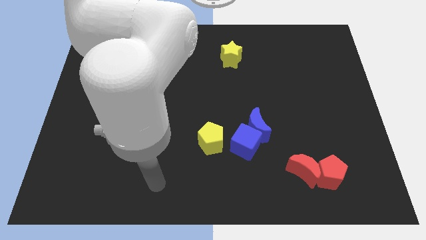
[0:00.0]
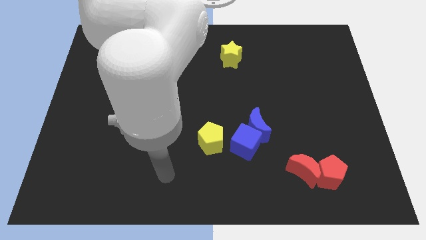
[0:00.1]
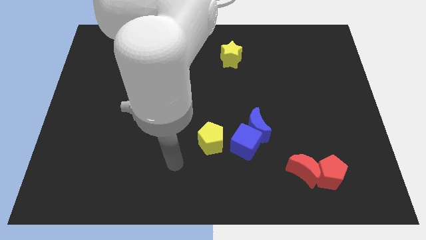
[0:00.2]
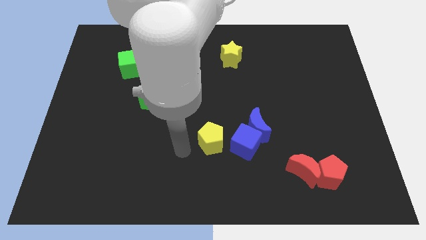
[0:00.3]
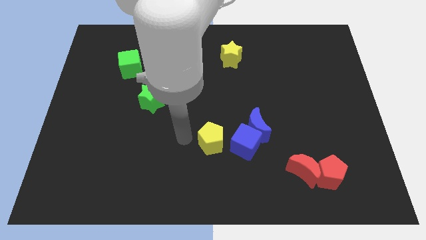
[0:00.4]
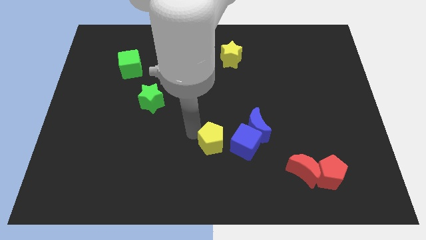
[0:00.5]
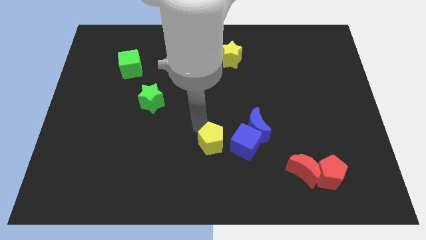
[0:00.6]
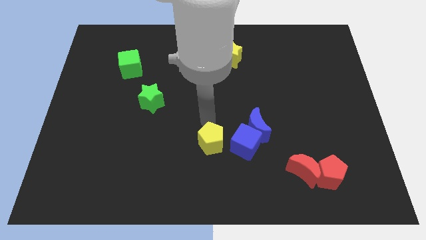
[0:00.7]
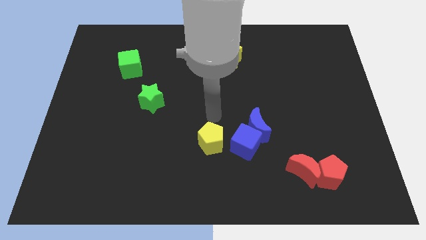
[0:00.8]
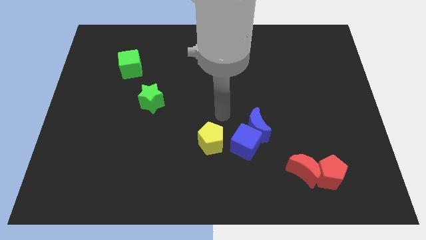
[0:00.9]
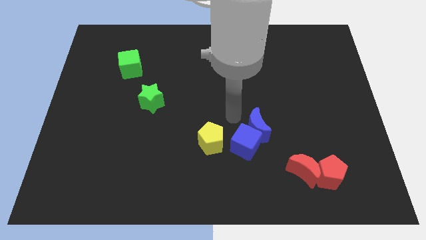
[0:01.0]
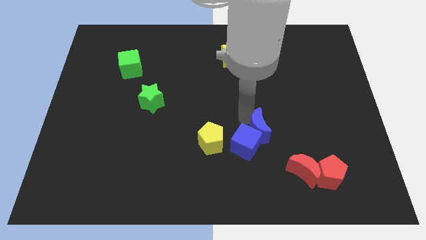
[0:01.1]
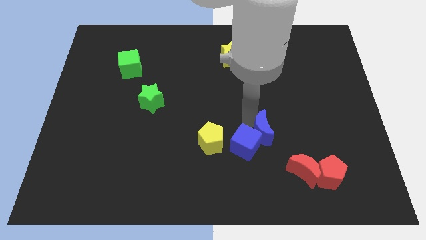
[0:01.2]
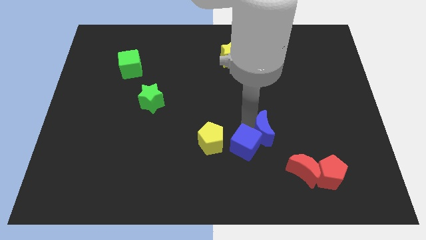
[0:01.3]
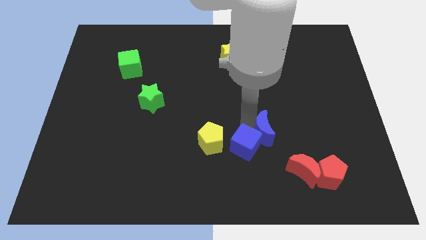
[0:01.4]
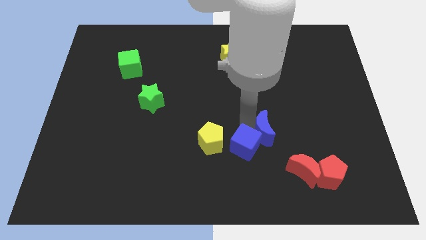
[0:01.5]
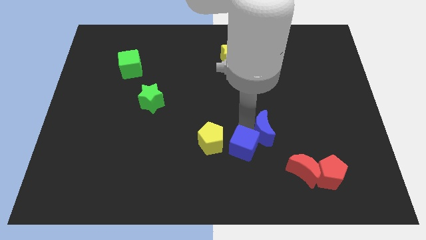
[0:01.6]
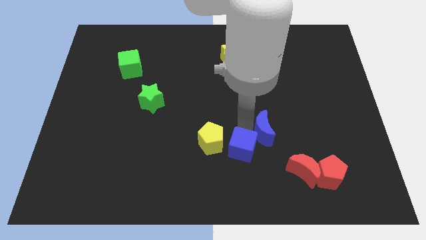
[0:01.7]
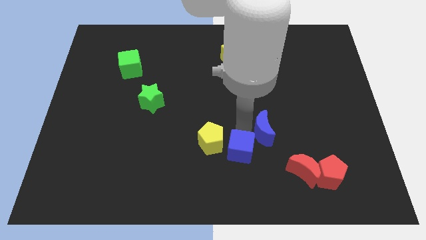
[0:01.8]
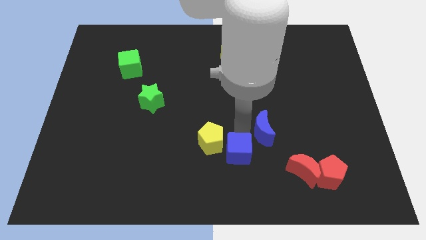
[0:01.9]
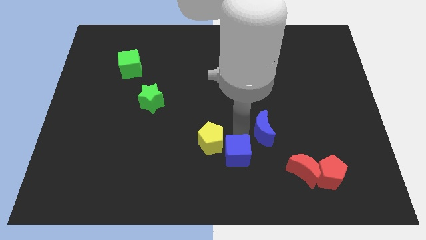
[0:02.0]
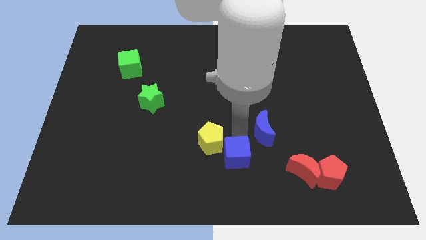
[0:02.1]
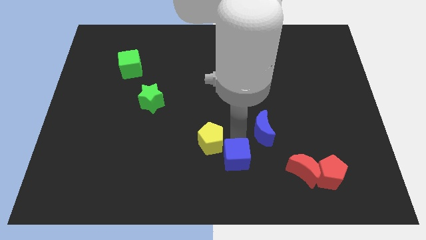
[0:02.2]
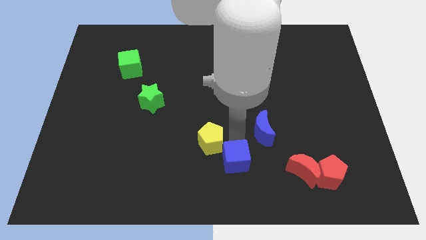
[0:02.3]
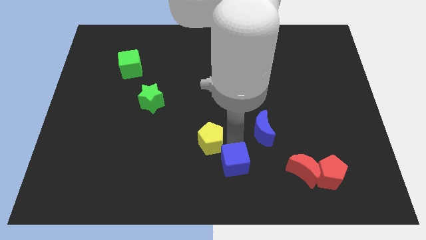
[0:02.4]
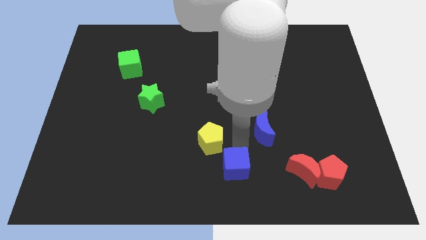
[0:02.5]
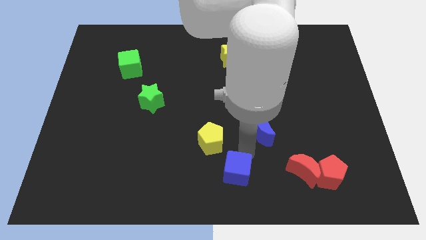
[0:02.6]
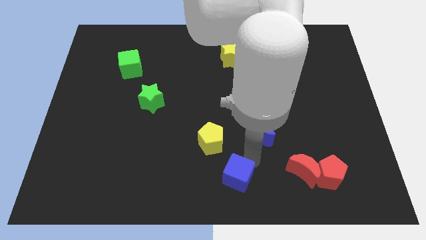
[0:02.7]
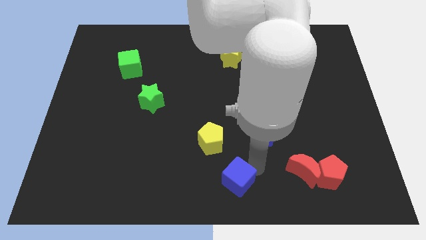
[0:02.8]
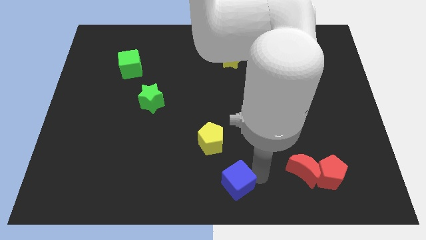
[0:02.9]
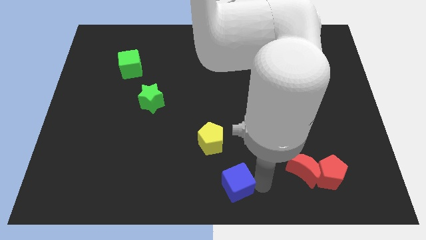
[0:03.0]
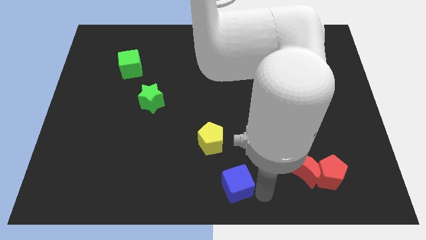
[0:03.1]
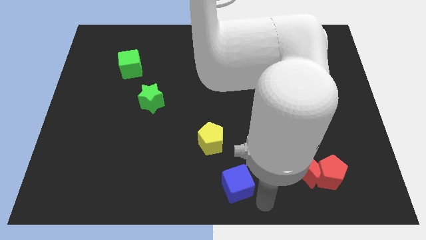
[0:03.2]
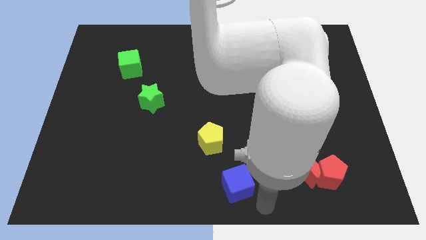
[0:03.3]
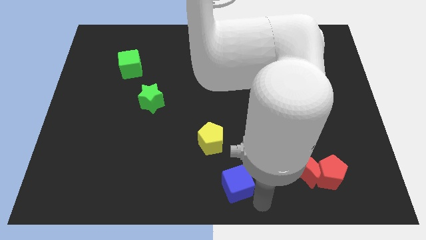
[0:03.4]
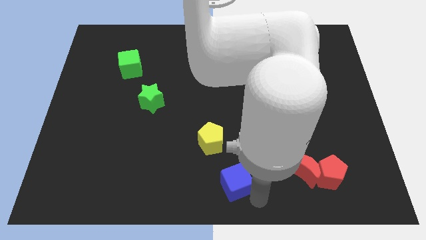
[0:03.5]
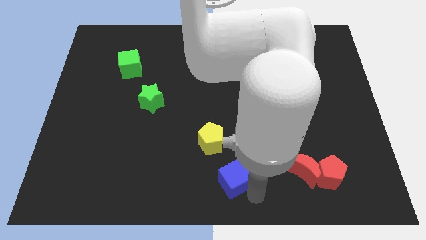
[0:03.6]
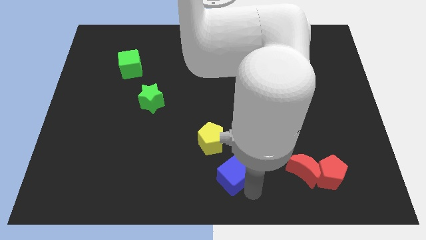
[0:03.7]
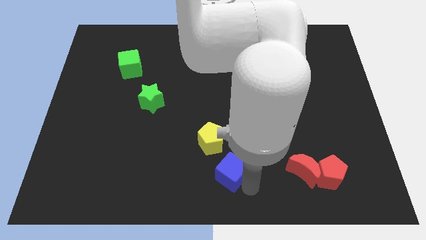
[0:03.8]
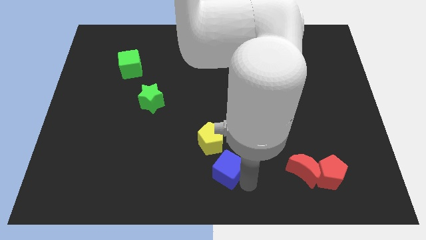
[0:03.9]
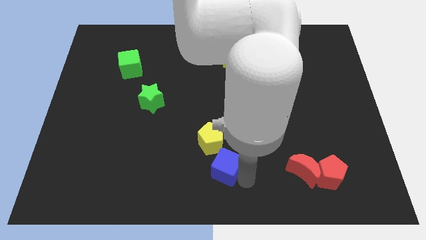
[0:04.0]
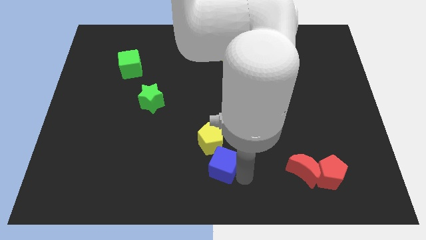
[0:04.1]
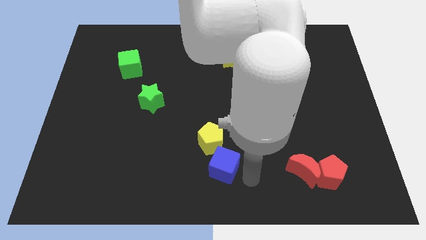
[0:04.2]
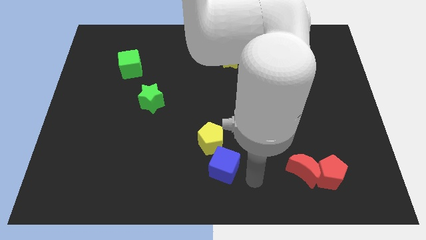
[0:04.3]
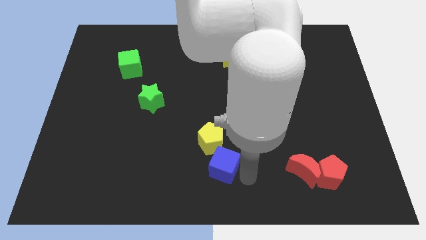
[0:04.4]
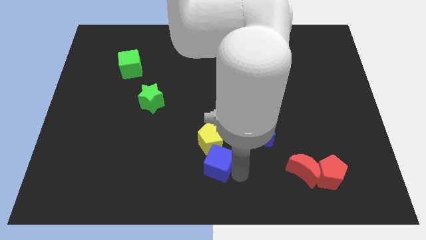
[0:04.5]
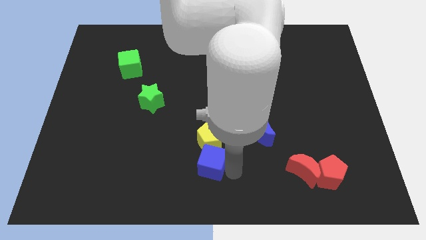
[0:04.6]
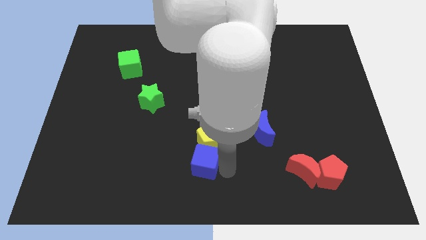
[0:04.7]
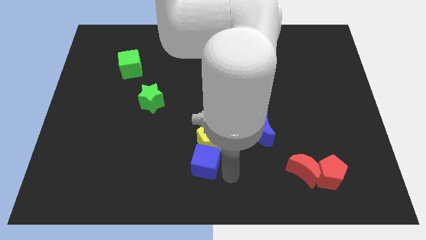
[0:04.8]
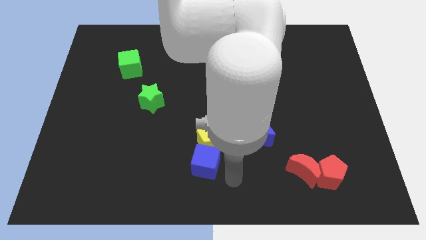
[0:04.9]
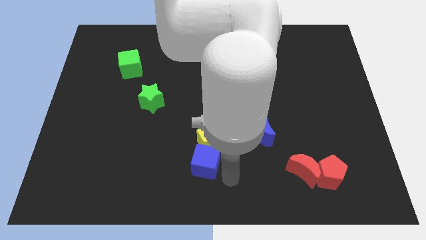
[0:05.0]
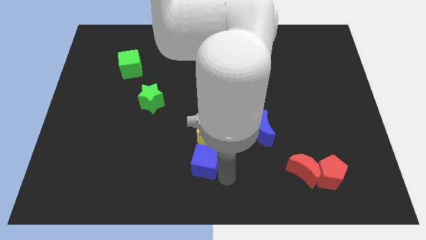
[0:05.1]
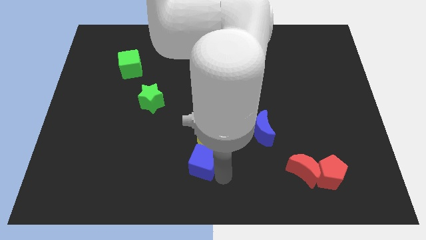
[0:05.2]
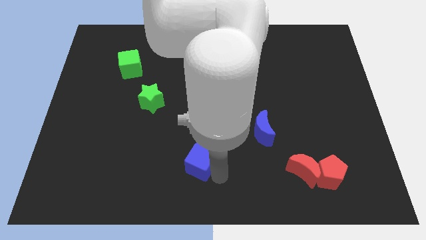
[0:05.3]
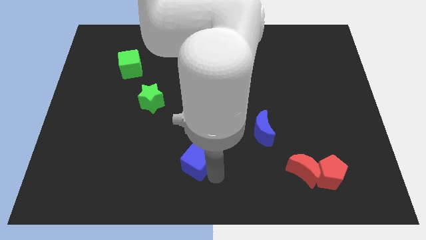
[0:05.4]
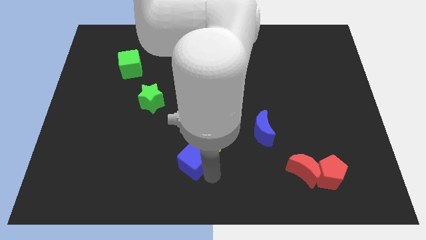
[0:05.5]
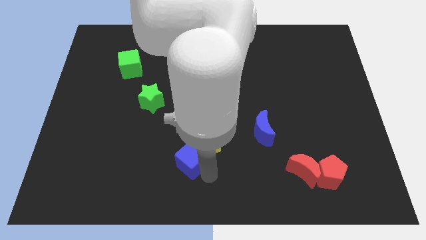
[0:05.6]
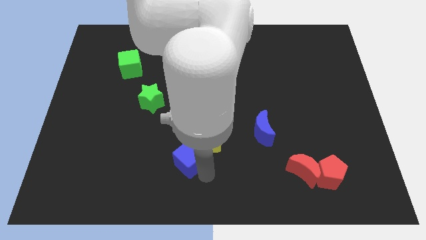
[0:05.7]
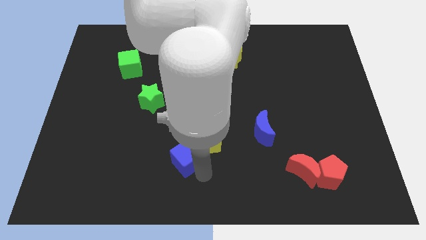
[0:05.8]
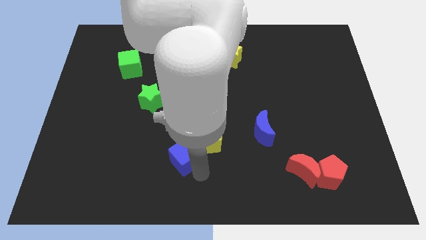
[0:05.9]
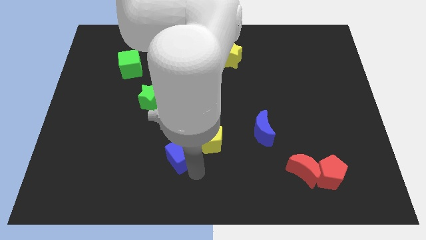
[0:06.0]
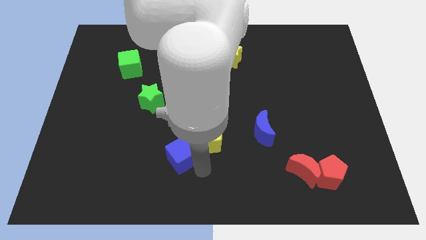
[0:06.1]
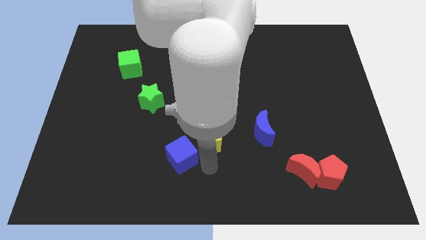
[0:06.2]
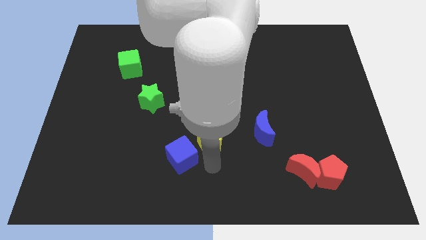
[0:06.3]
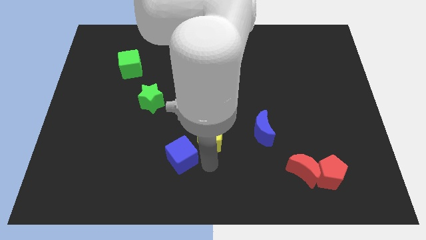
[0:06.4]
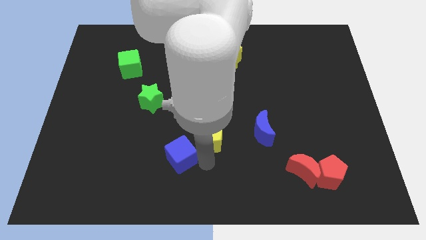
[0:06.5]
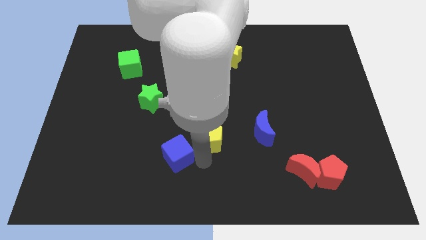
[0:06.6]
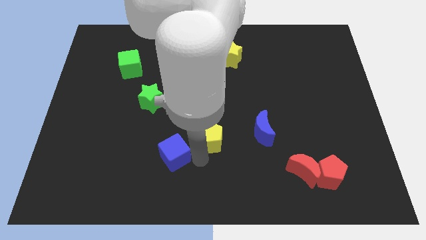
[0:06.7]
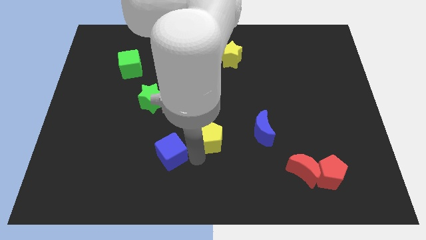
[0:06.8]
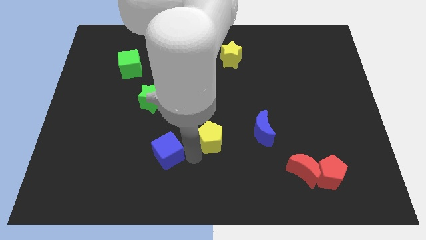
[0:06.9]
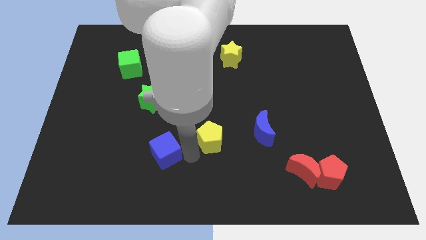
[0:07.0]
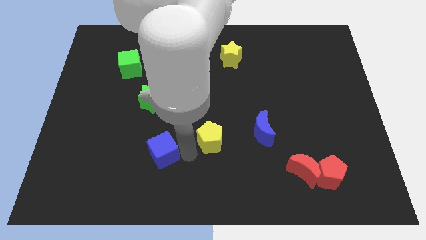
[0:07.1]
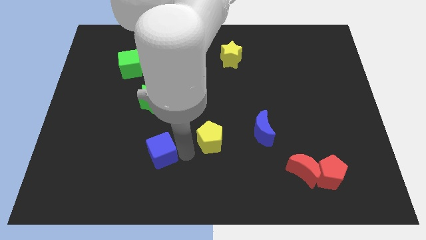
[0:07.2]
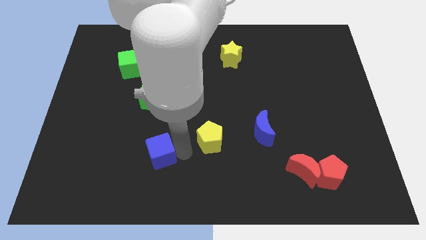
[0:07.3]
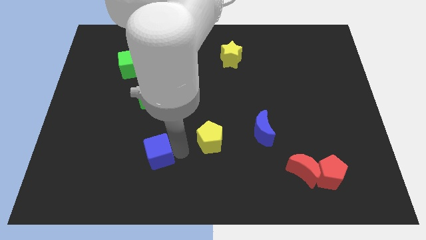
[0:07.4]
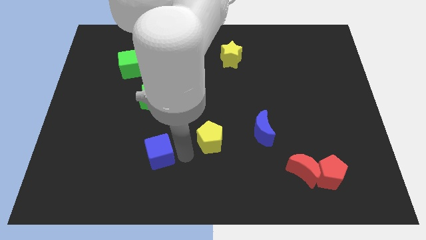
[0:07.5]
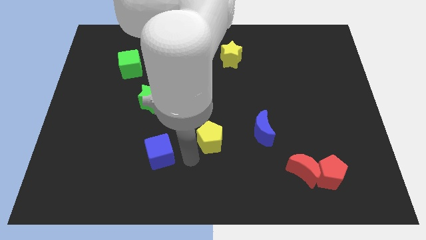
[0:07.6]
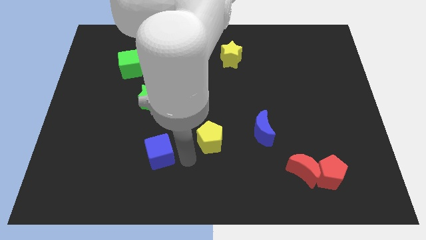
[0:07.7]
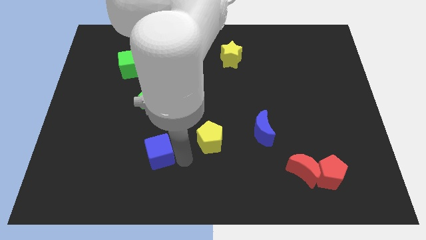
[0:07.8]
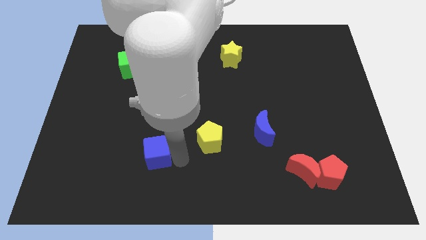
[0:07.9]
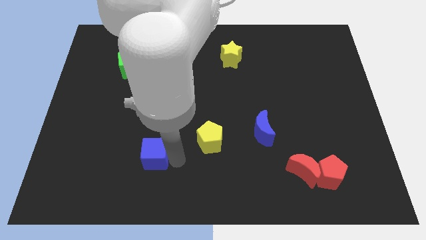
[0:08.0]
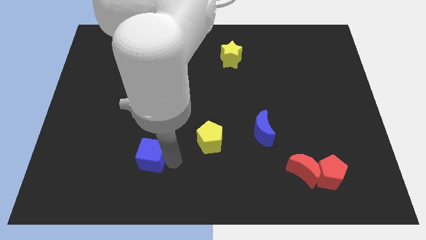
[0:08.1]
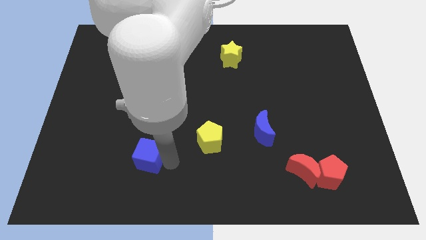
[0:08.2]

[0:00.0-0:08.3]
move the blue cube to the left
